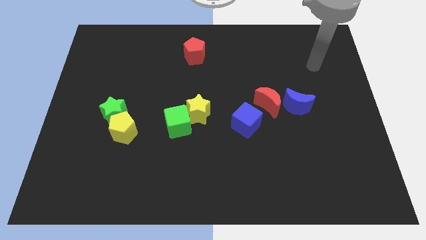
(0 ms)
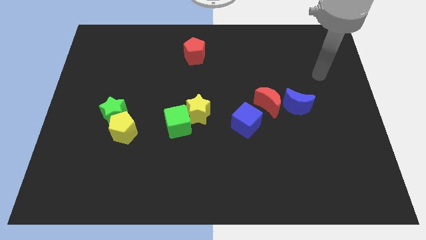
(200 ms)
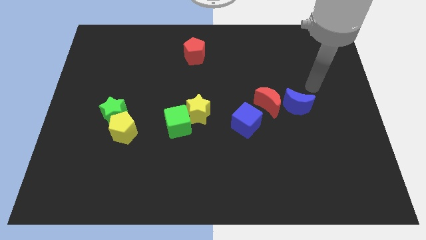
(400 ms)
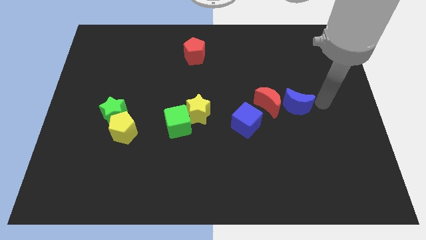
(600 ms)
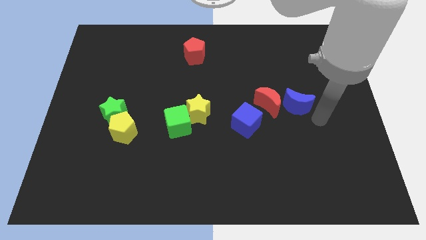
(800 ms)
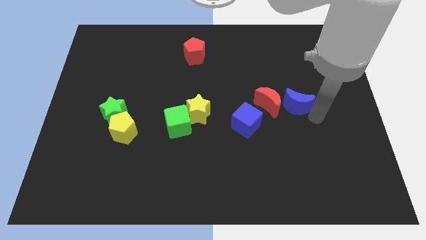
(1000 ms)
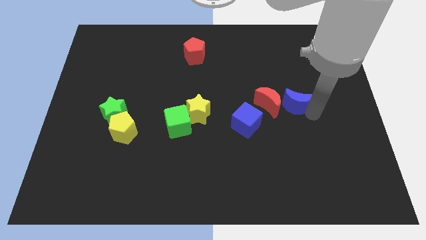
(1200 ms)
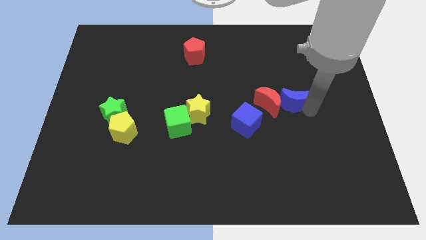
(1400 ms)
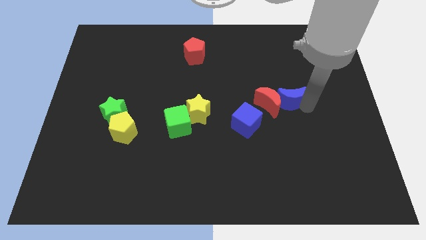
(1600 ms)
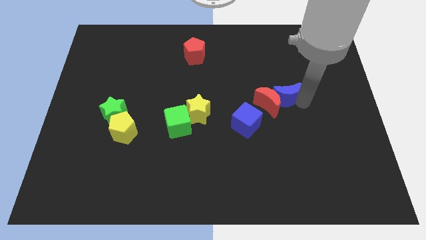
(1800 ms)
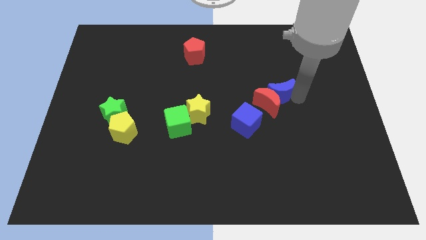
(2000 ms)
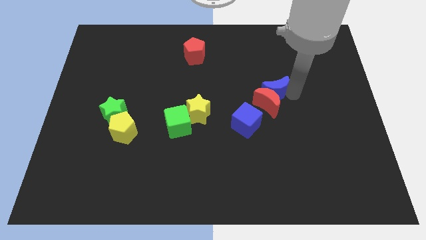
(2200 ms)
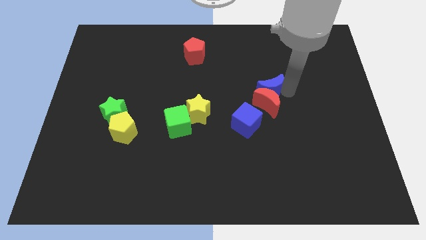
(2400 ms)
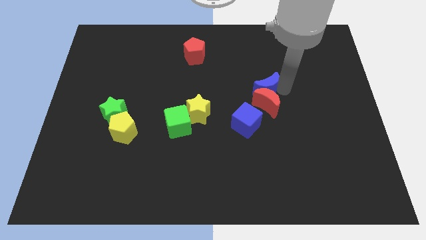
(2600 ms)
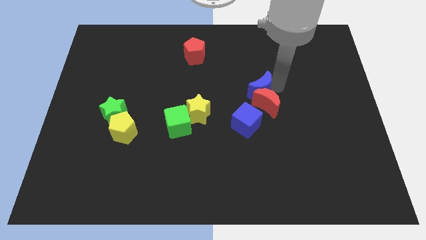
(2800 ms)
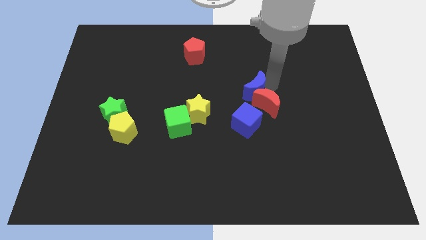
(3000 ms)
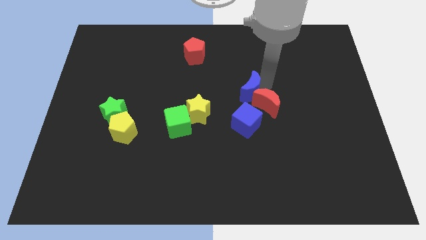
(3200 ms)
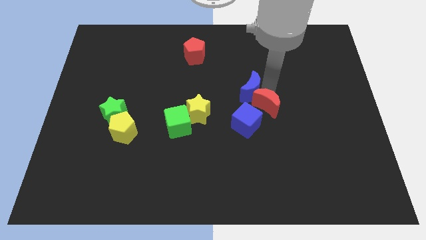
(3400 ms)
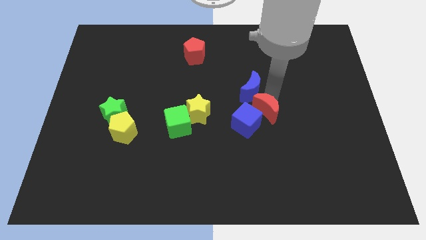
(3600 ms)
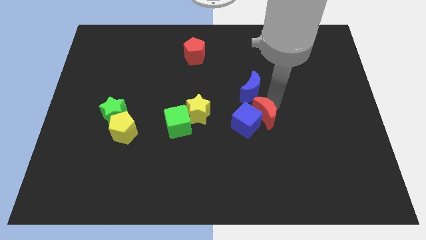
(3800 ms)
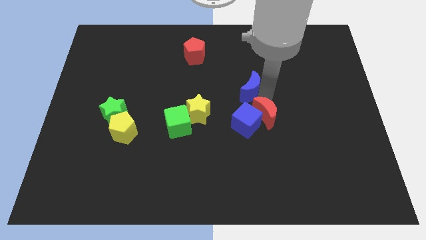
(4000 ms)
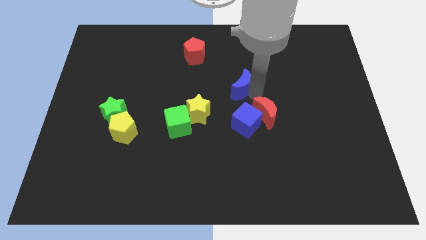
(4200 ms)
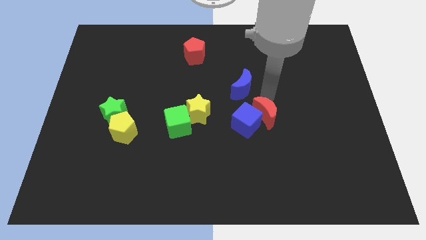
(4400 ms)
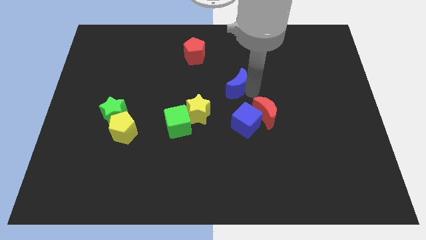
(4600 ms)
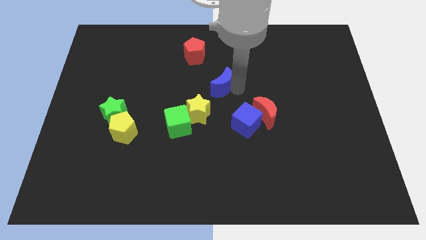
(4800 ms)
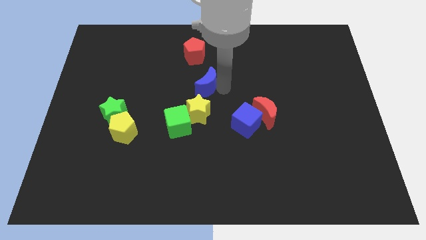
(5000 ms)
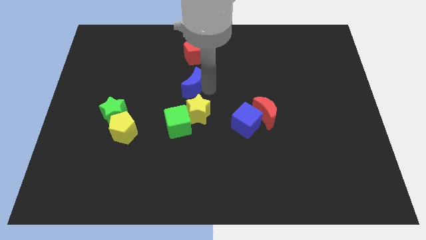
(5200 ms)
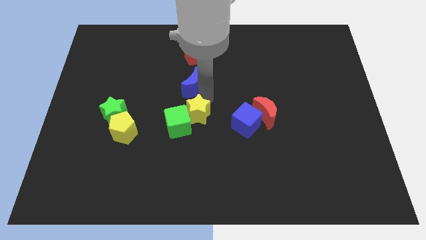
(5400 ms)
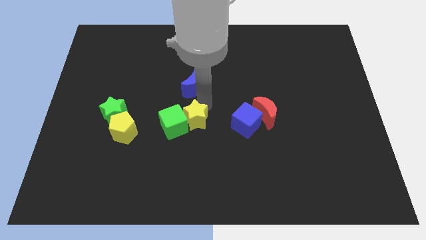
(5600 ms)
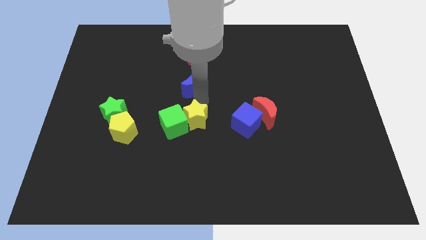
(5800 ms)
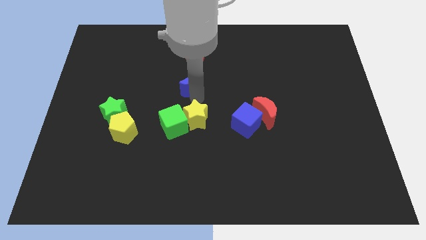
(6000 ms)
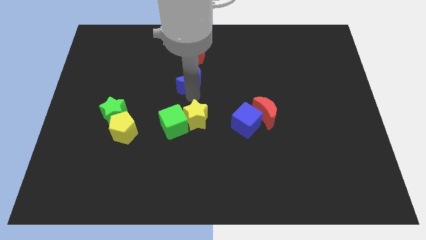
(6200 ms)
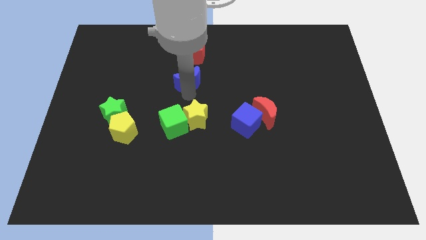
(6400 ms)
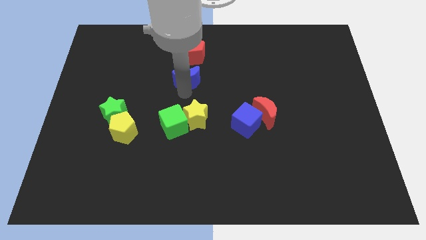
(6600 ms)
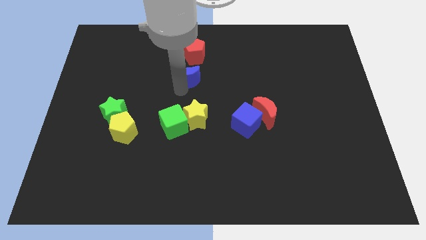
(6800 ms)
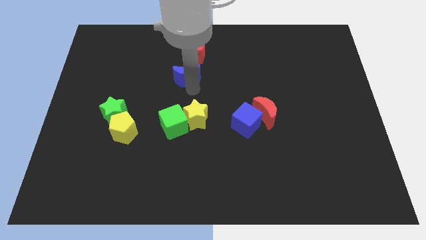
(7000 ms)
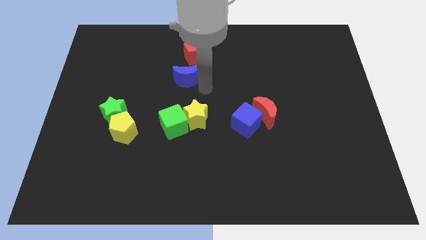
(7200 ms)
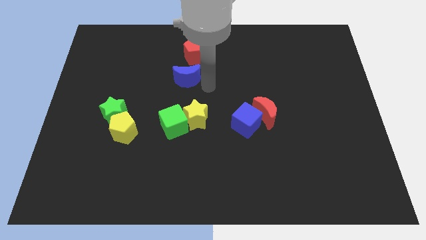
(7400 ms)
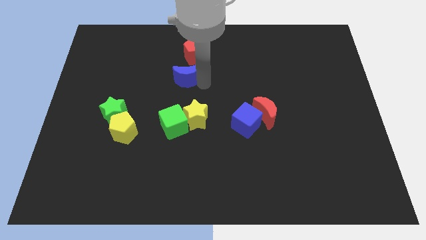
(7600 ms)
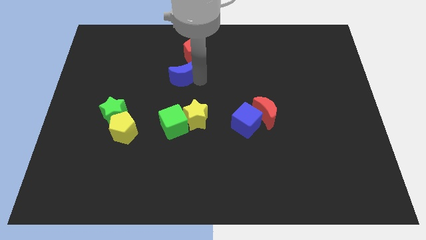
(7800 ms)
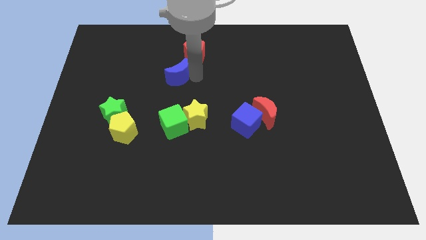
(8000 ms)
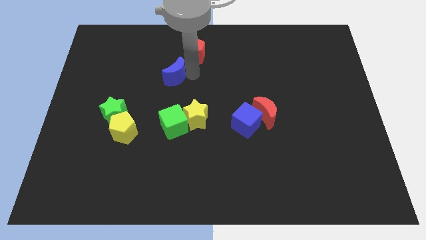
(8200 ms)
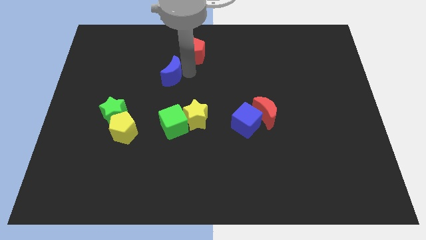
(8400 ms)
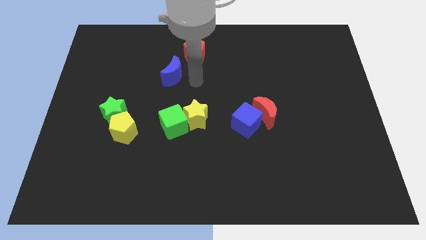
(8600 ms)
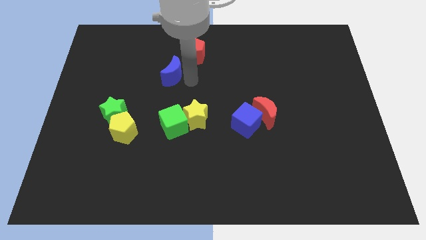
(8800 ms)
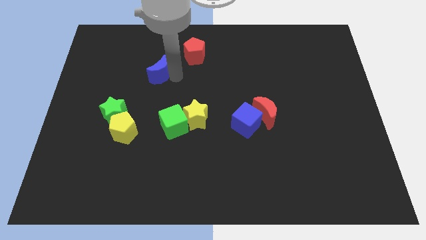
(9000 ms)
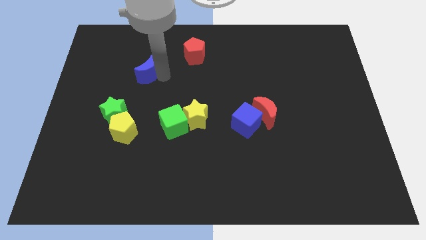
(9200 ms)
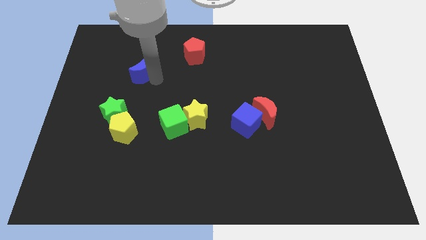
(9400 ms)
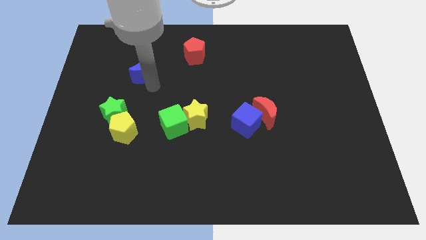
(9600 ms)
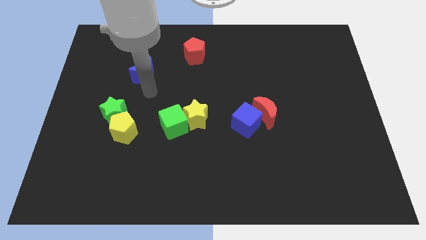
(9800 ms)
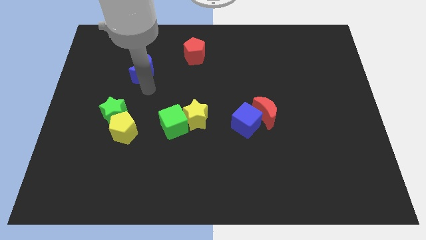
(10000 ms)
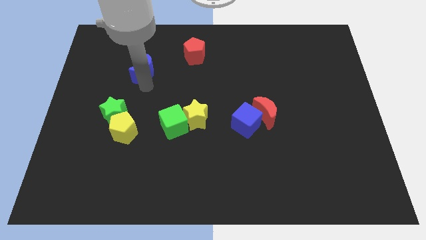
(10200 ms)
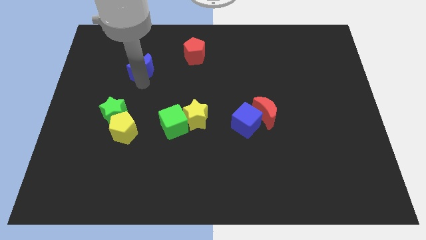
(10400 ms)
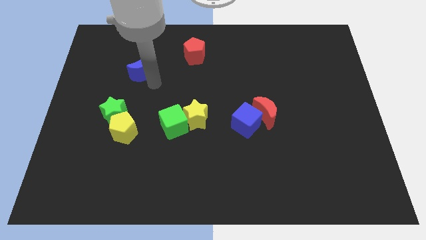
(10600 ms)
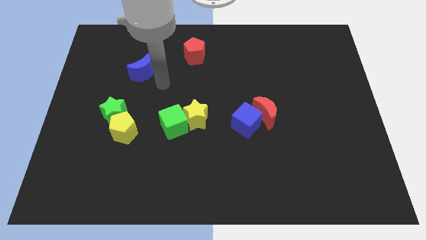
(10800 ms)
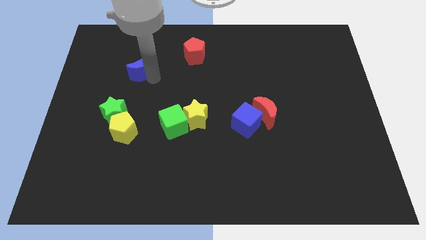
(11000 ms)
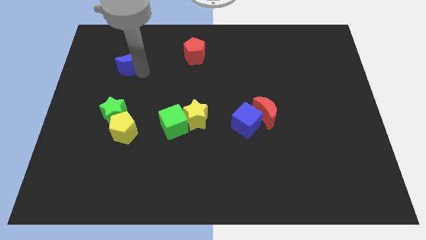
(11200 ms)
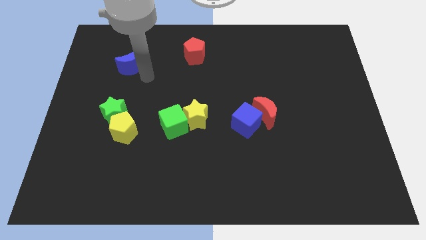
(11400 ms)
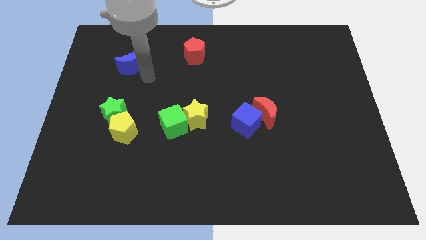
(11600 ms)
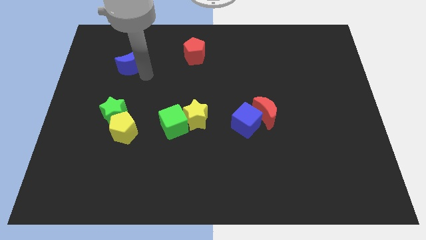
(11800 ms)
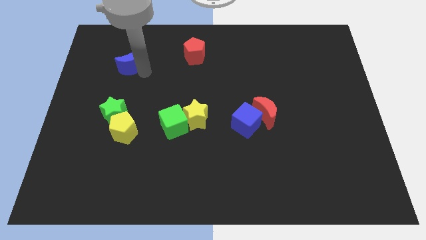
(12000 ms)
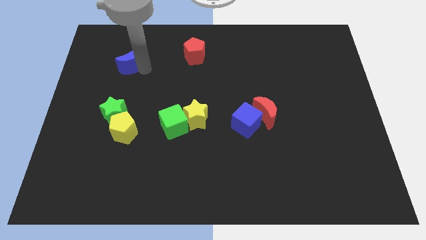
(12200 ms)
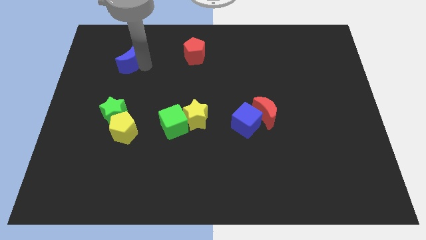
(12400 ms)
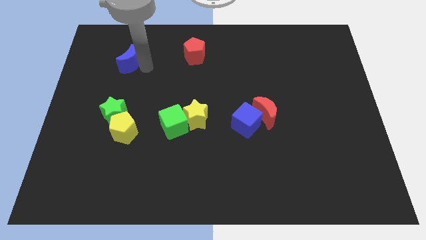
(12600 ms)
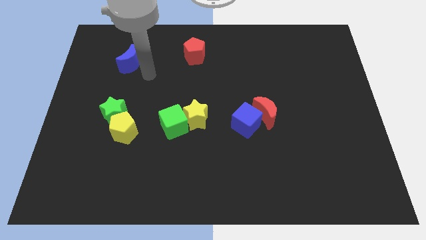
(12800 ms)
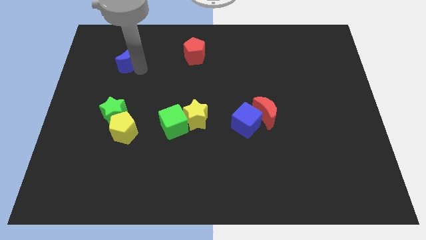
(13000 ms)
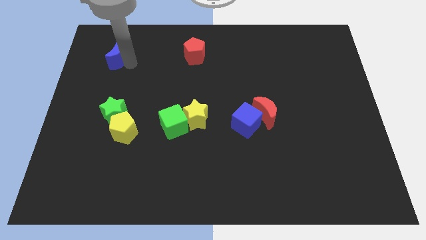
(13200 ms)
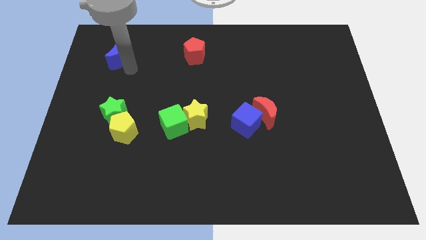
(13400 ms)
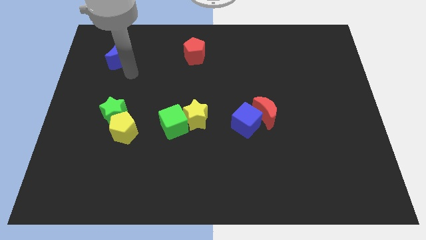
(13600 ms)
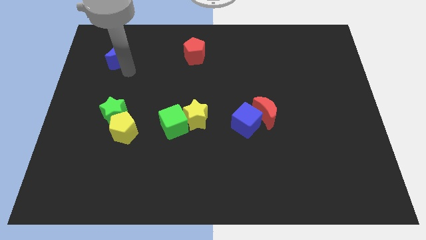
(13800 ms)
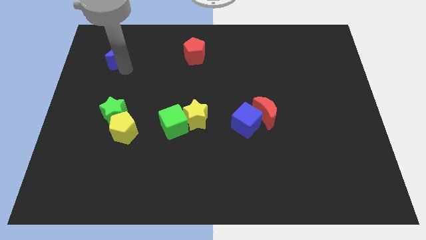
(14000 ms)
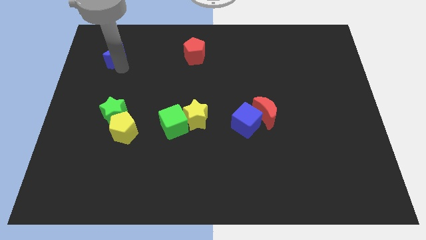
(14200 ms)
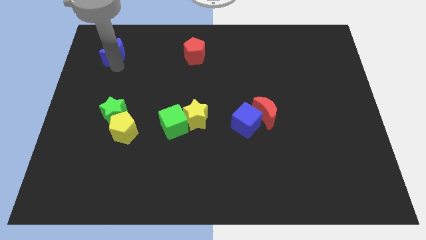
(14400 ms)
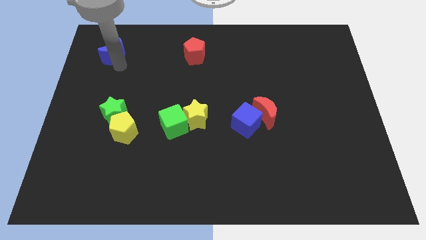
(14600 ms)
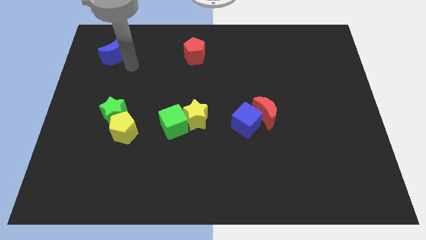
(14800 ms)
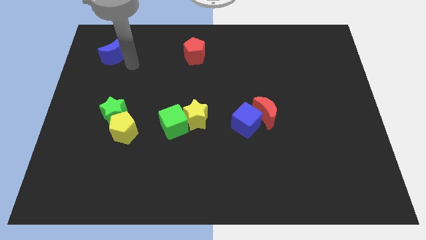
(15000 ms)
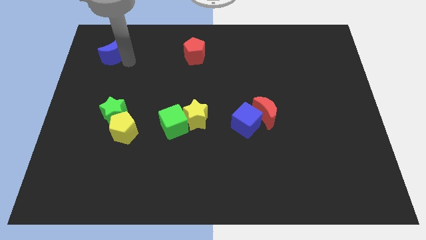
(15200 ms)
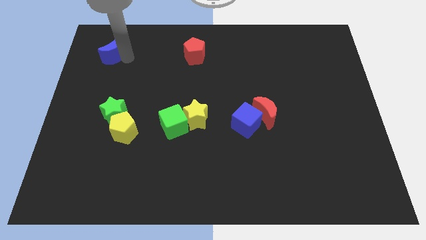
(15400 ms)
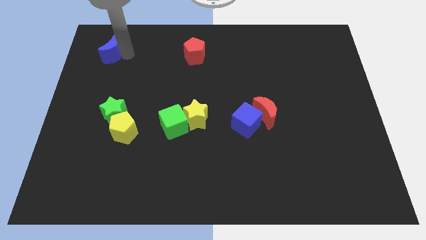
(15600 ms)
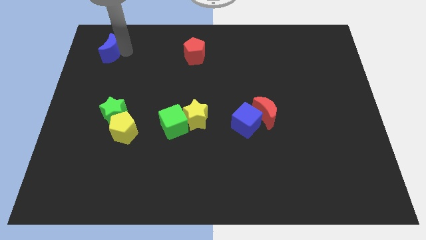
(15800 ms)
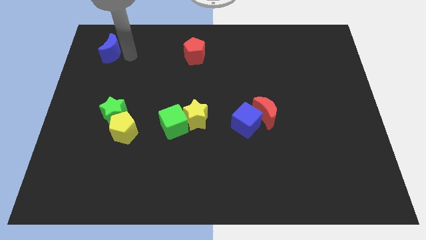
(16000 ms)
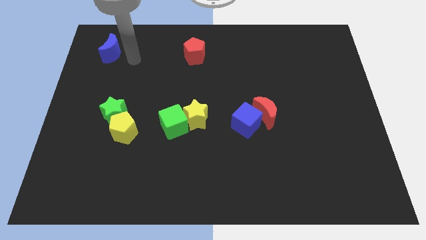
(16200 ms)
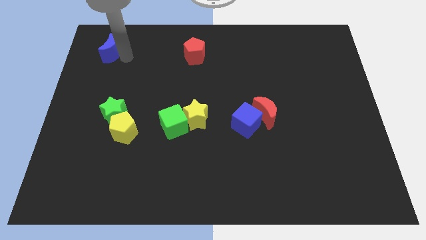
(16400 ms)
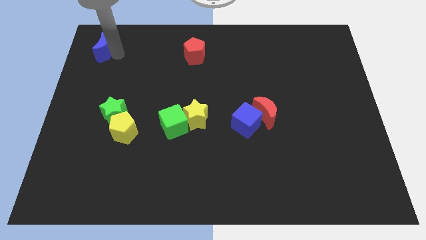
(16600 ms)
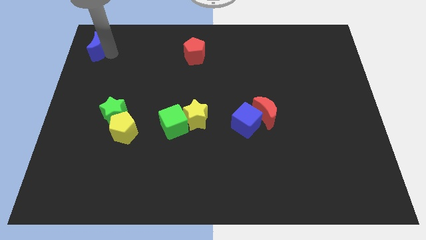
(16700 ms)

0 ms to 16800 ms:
push the blue moon to the top left
